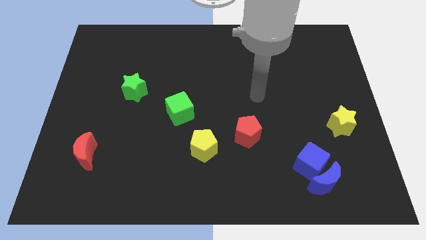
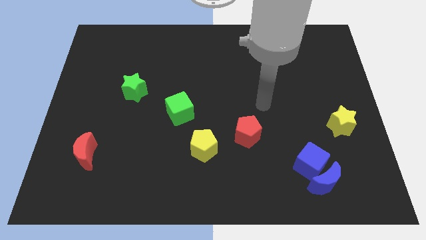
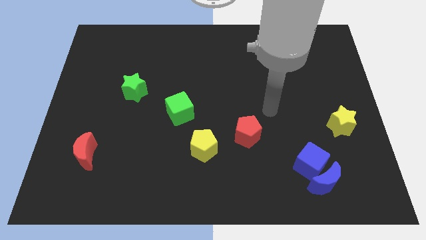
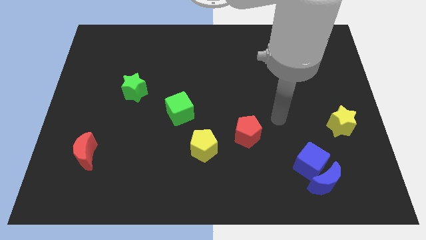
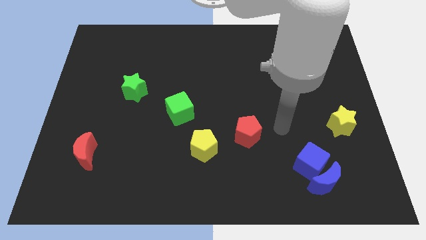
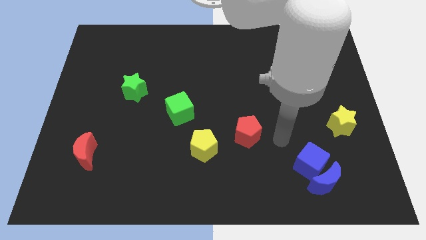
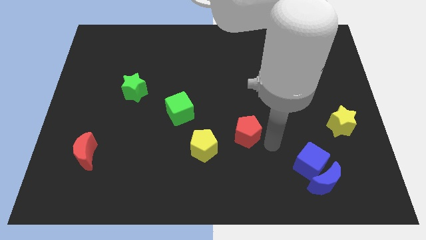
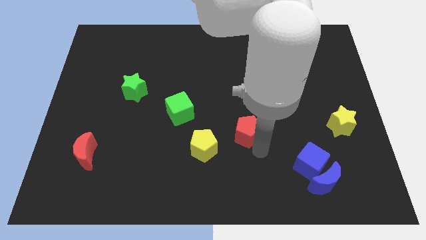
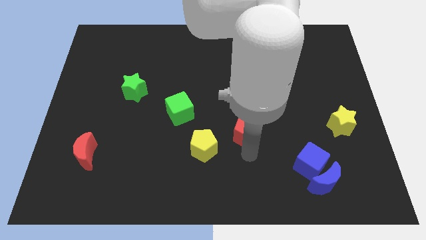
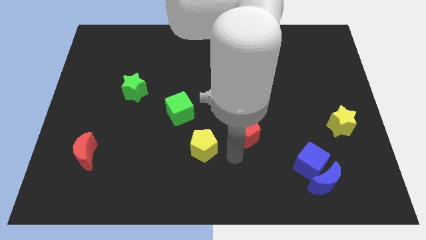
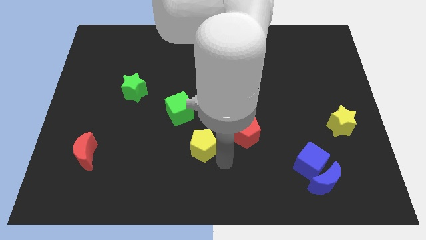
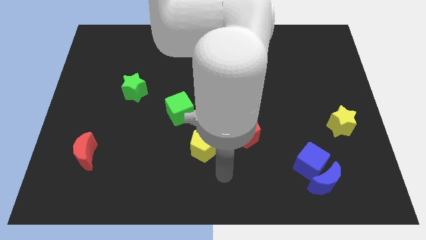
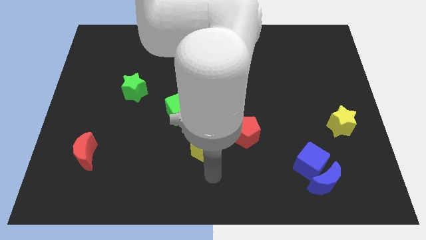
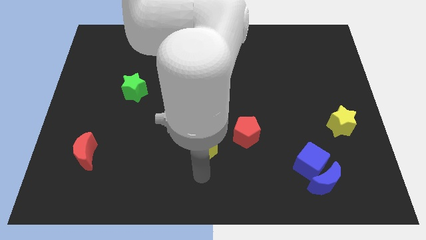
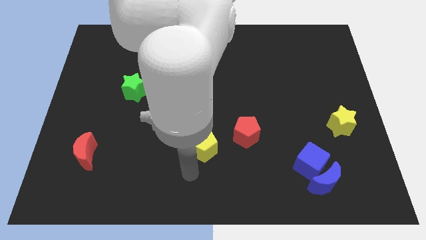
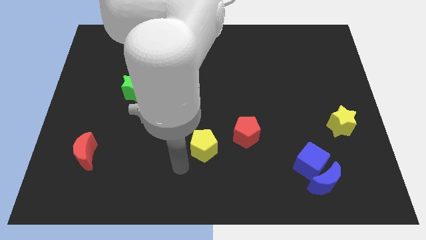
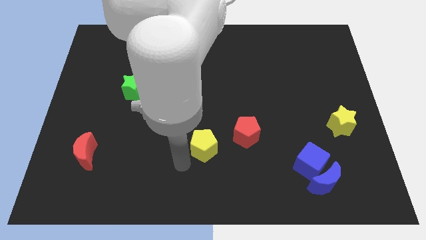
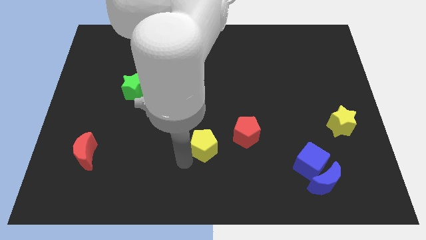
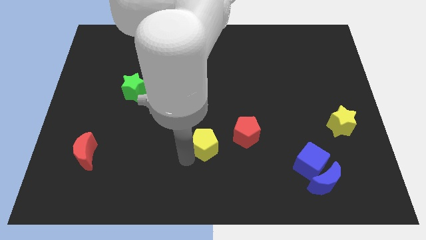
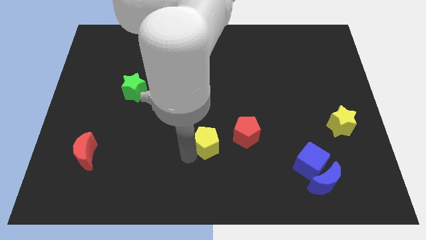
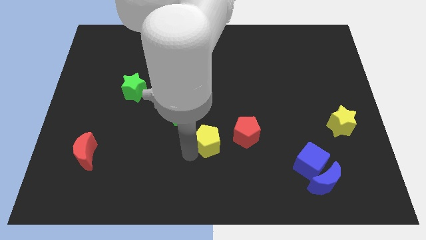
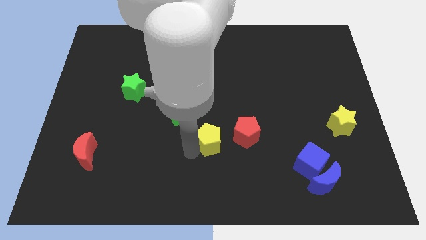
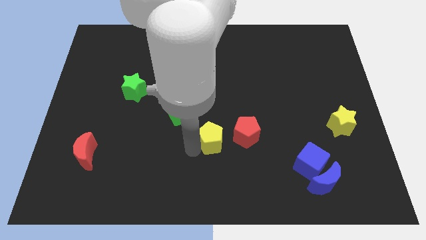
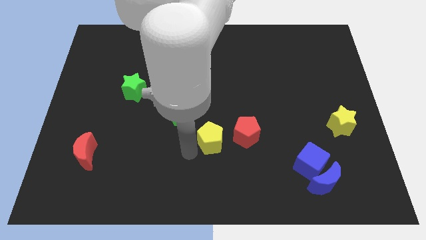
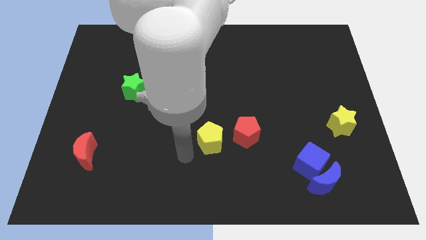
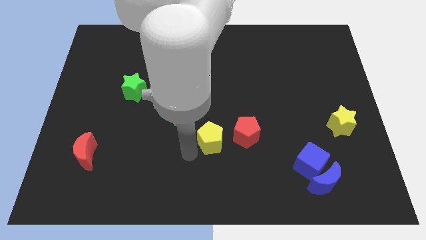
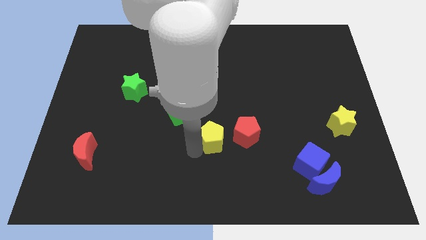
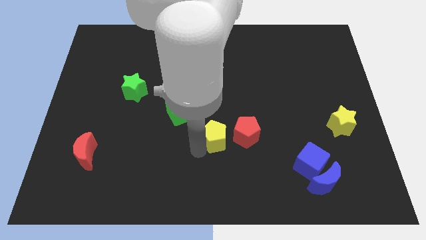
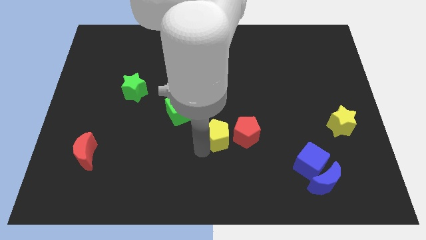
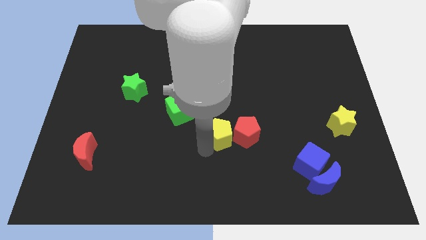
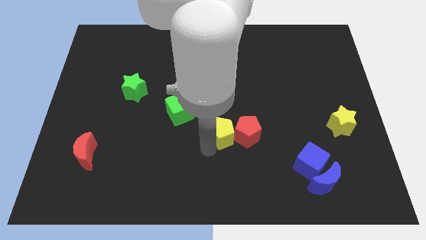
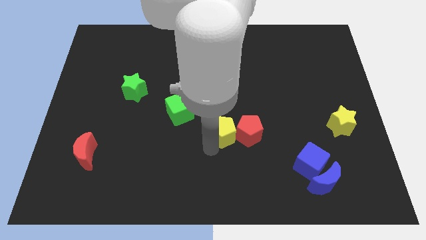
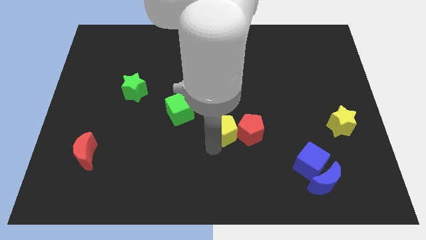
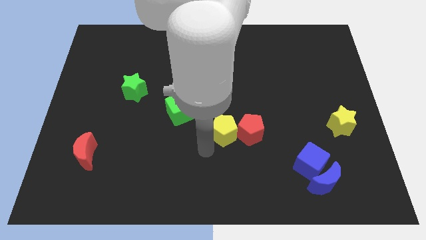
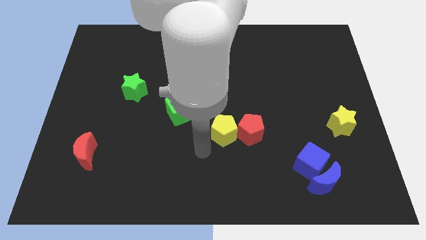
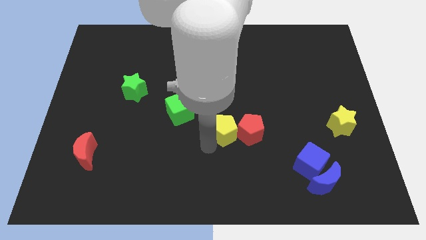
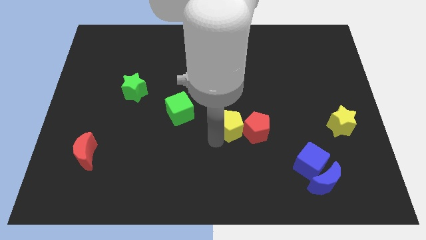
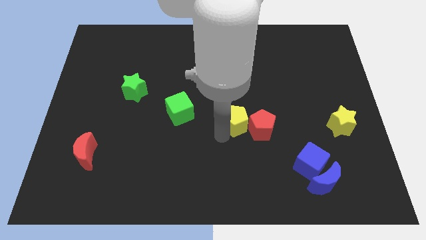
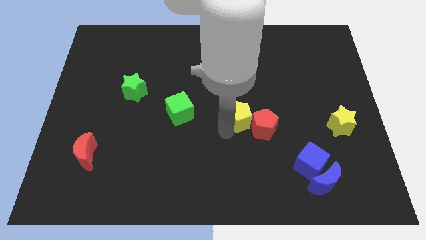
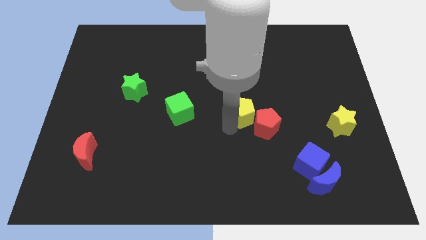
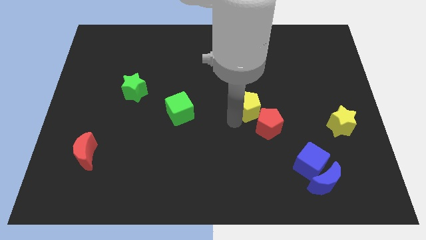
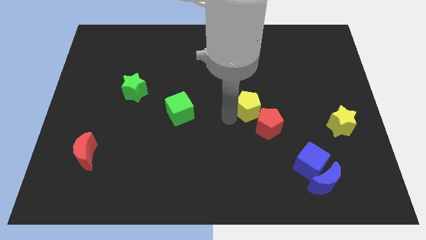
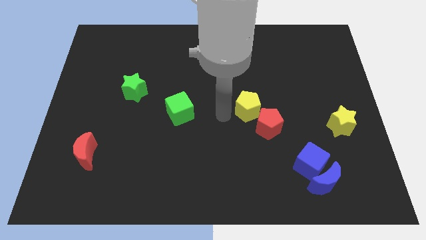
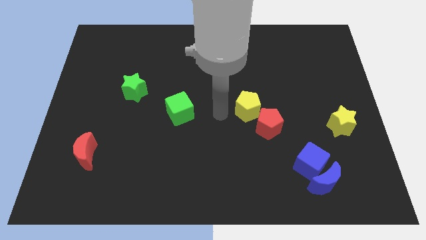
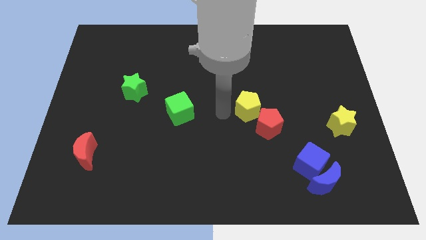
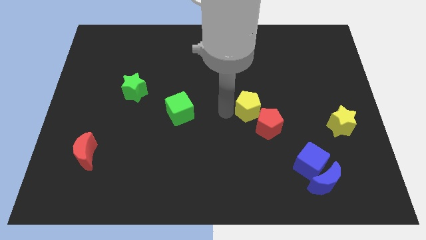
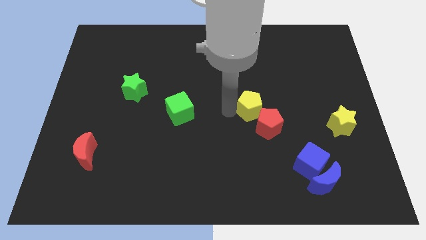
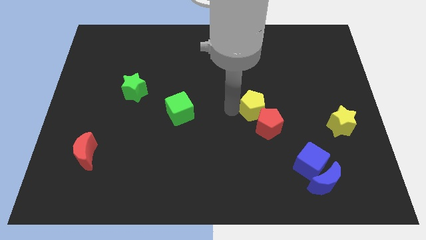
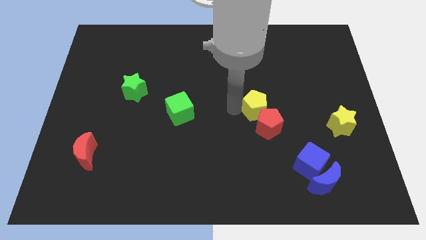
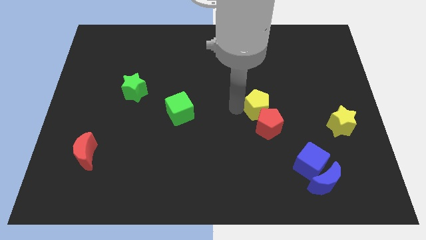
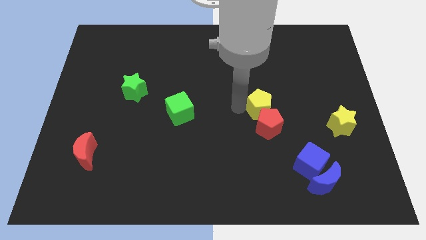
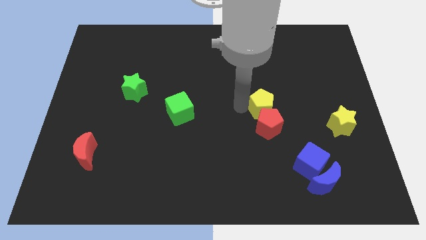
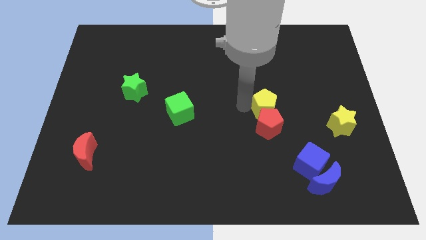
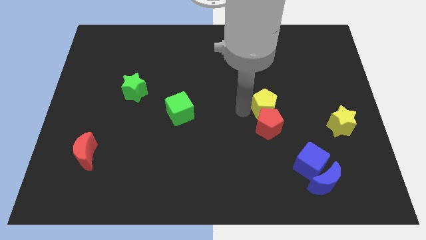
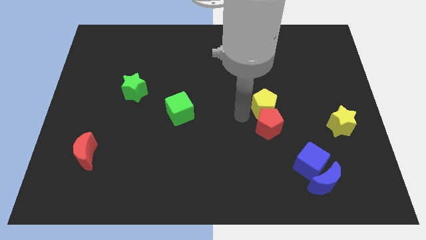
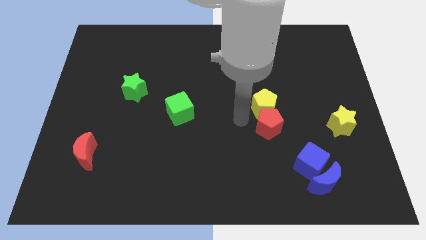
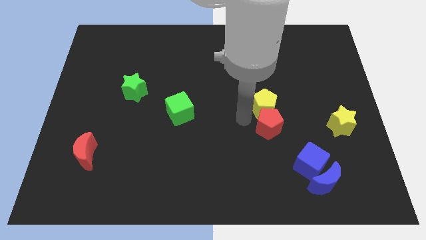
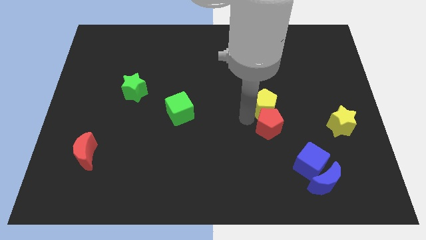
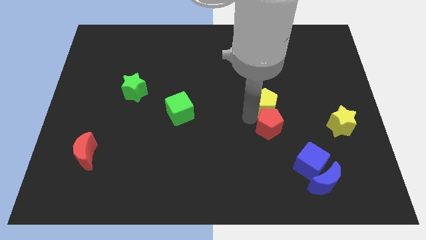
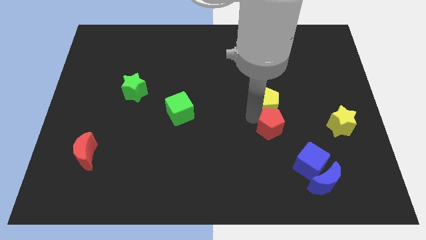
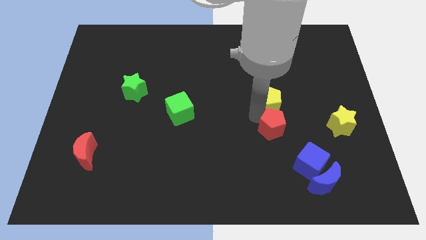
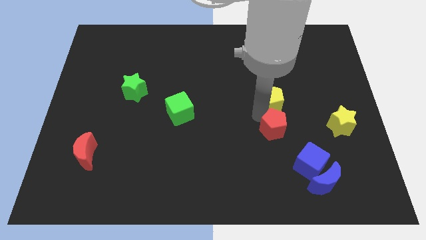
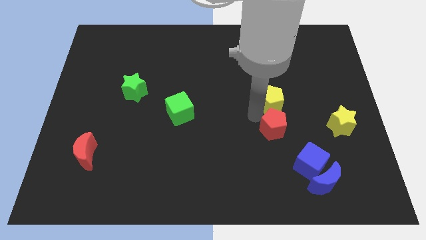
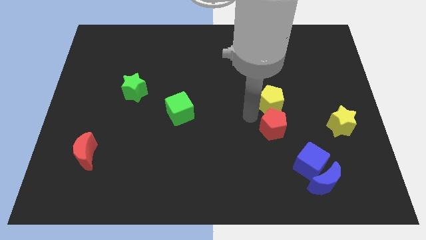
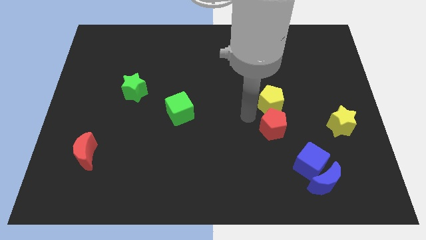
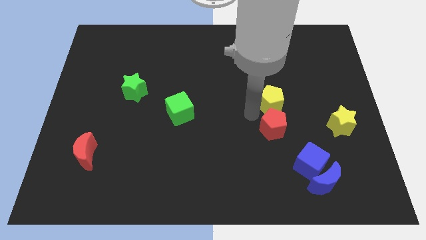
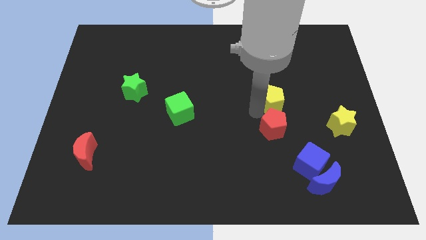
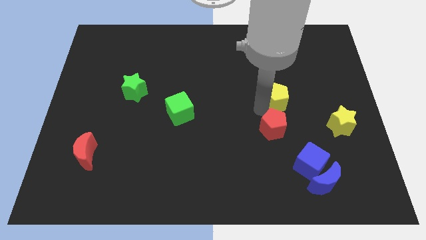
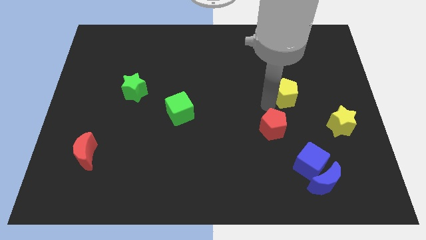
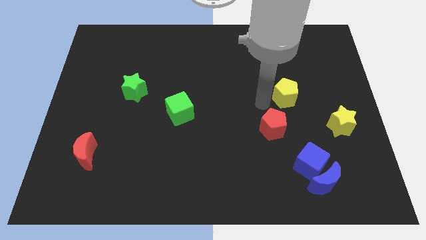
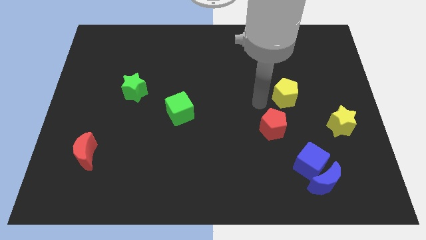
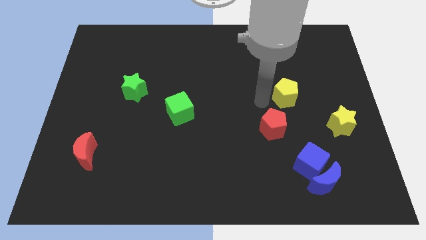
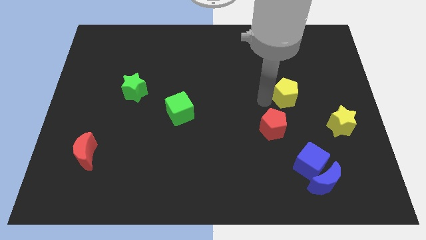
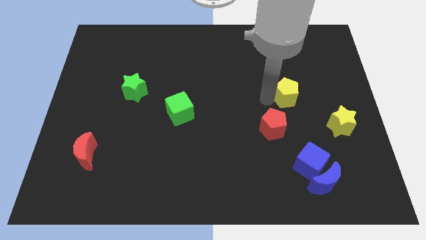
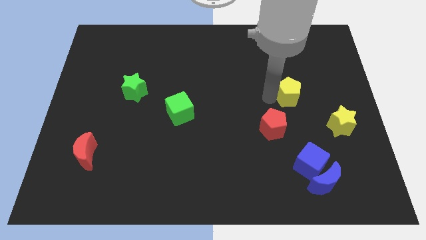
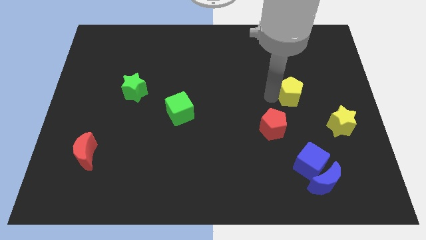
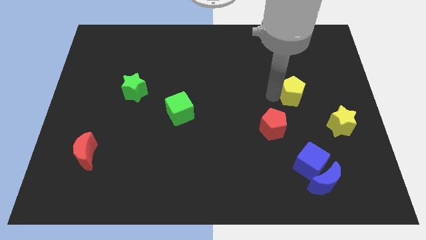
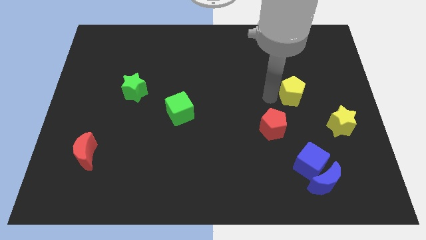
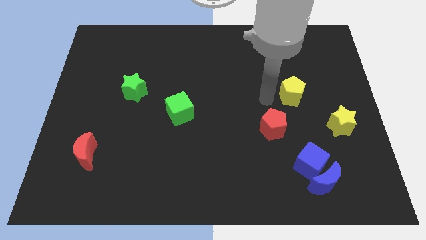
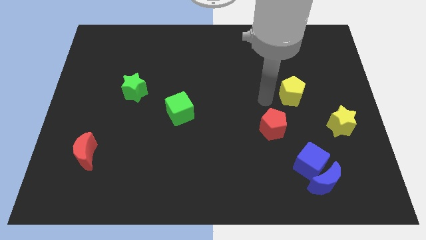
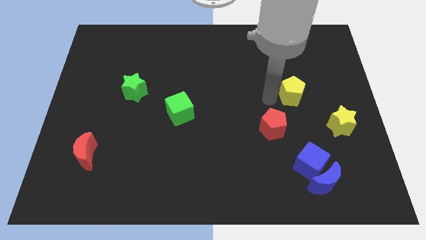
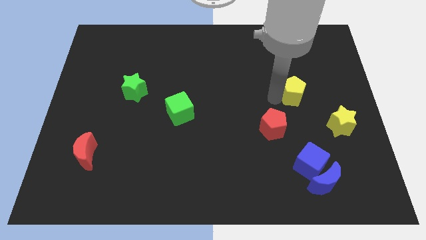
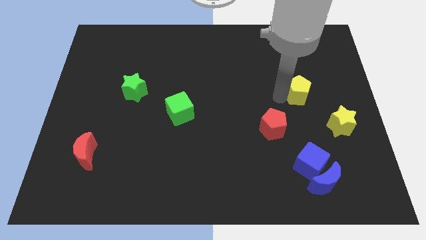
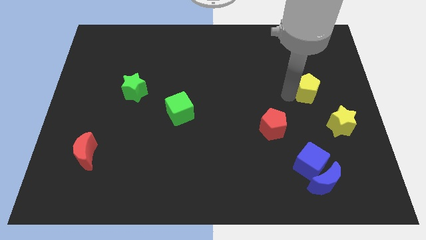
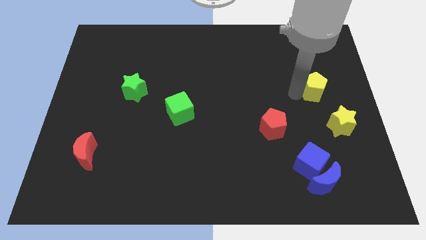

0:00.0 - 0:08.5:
push the yellow pentagon to the top of the yellow star
